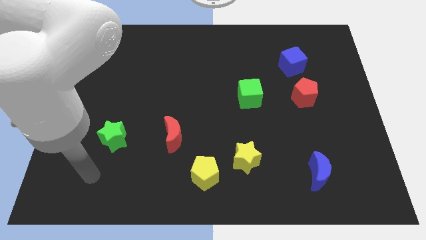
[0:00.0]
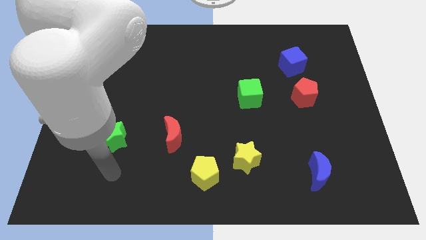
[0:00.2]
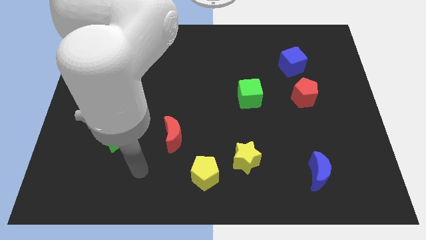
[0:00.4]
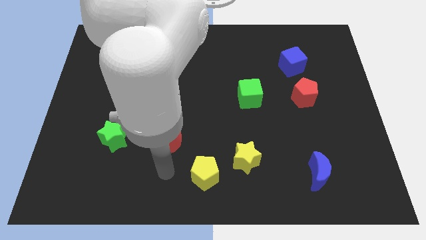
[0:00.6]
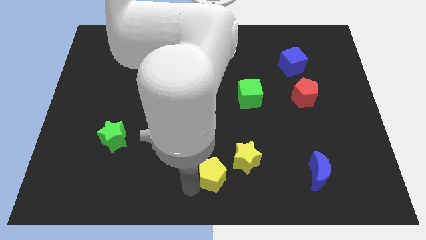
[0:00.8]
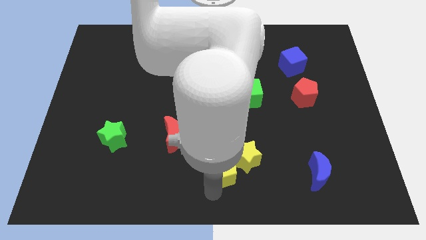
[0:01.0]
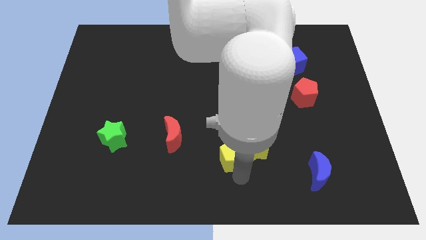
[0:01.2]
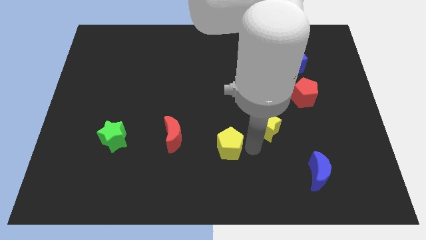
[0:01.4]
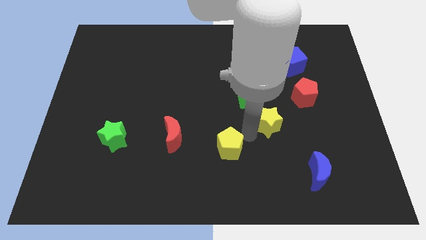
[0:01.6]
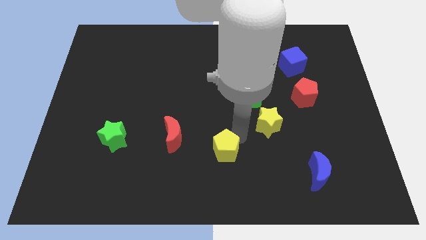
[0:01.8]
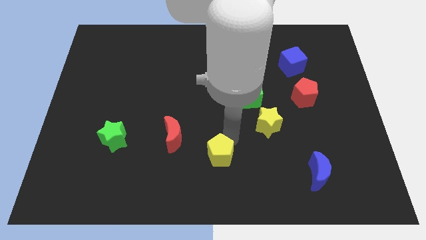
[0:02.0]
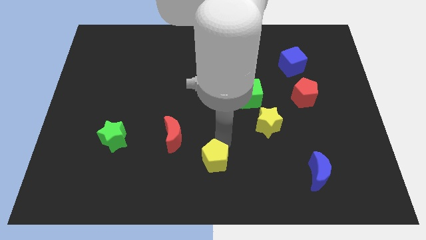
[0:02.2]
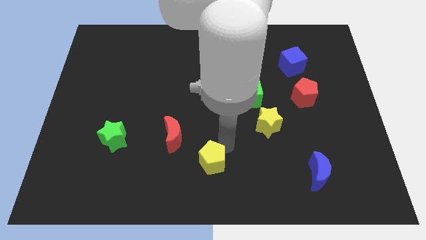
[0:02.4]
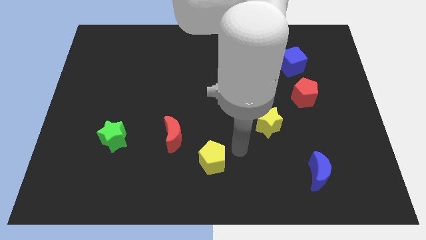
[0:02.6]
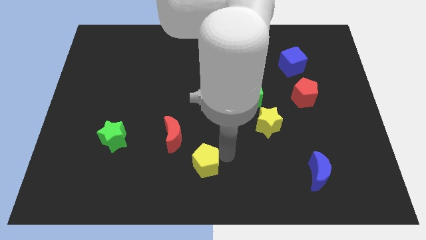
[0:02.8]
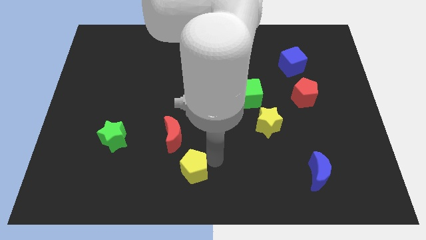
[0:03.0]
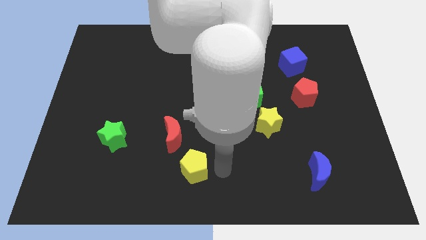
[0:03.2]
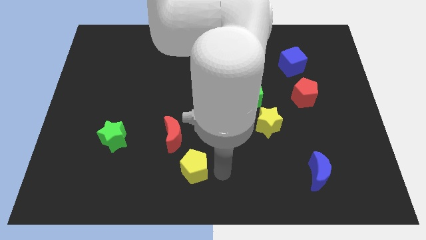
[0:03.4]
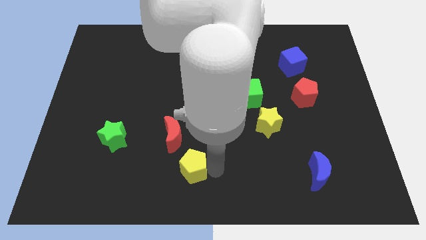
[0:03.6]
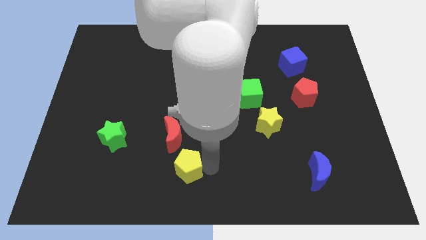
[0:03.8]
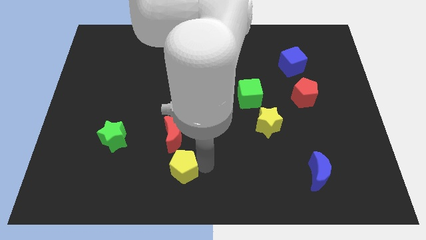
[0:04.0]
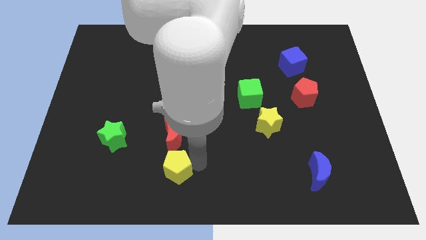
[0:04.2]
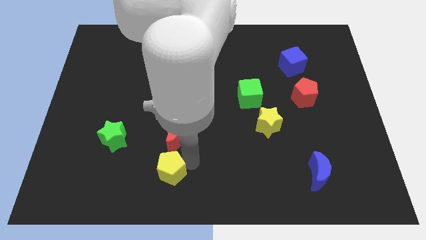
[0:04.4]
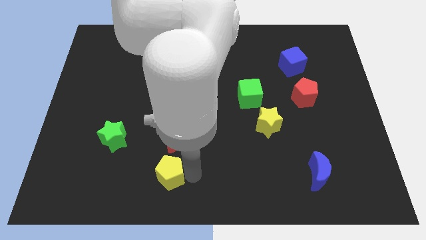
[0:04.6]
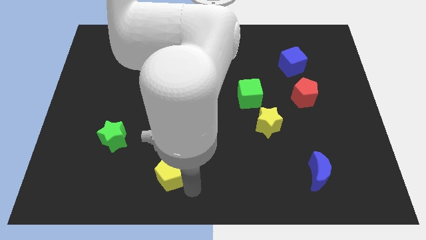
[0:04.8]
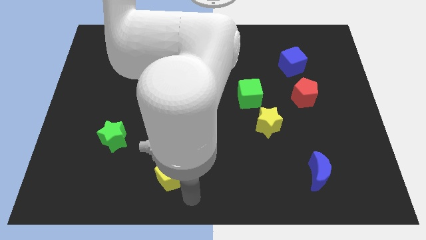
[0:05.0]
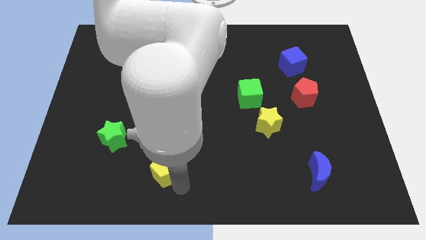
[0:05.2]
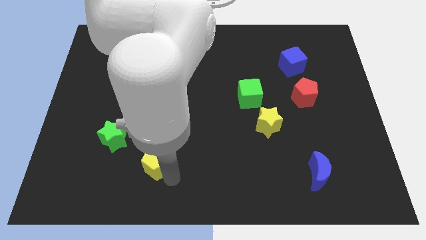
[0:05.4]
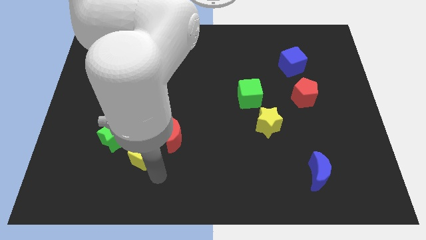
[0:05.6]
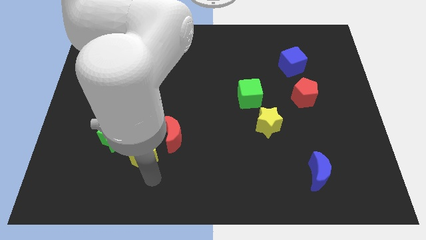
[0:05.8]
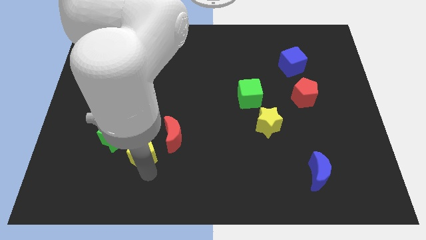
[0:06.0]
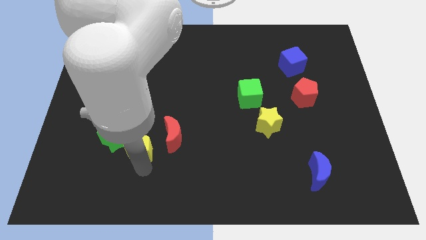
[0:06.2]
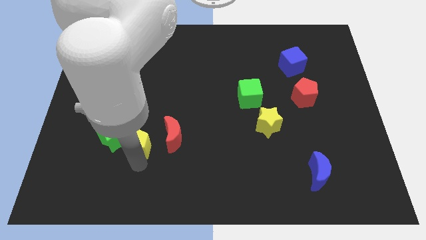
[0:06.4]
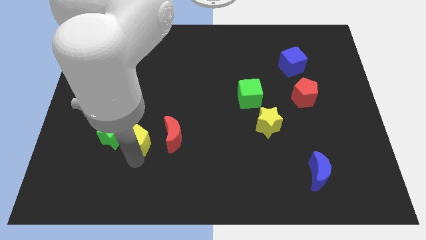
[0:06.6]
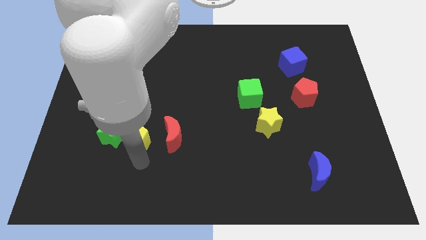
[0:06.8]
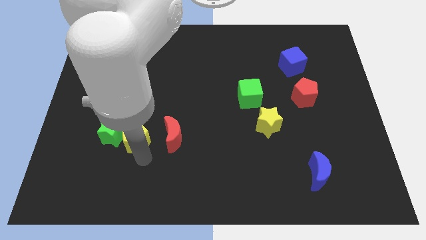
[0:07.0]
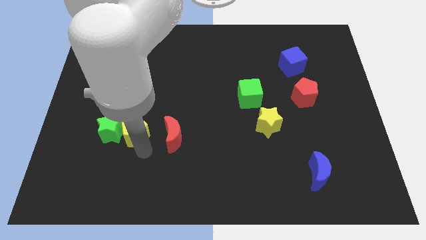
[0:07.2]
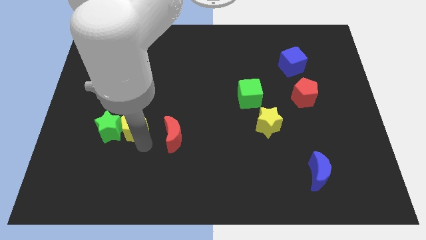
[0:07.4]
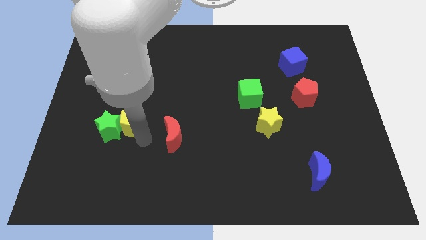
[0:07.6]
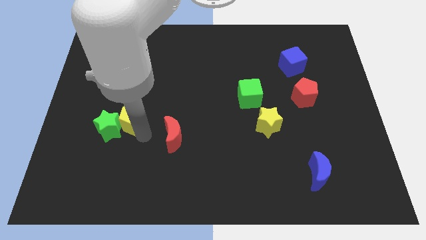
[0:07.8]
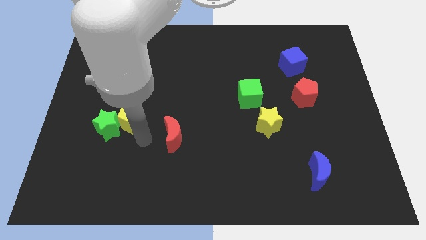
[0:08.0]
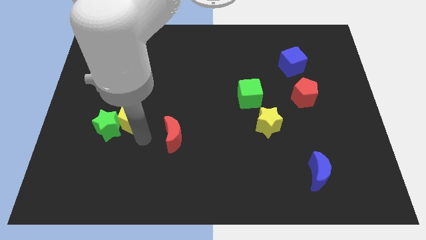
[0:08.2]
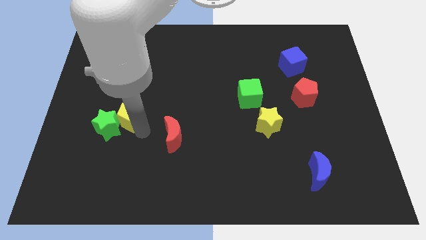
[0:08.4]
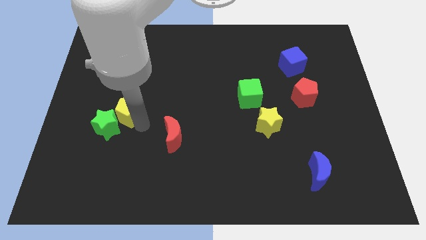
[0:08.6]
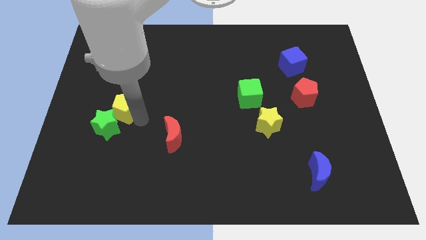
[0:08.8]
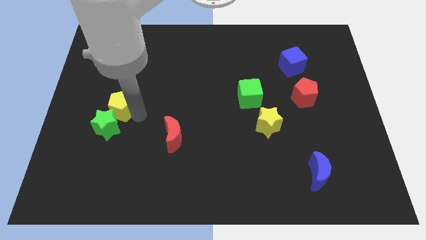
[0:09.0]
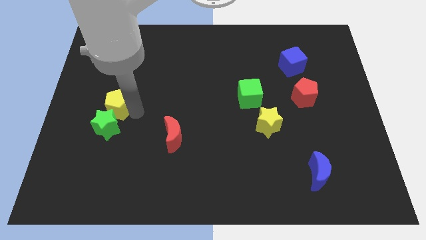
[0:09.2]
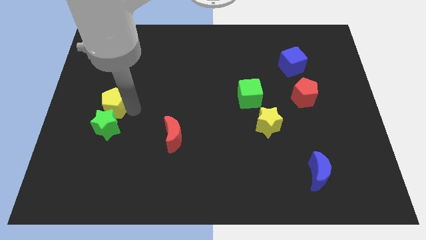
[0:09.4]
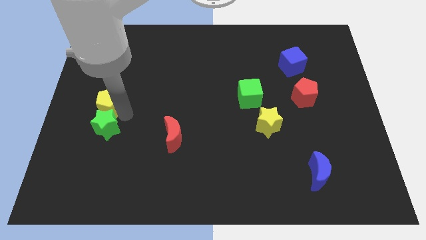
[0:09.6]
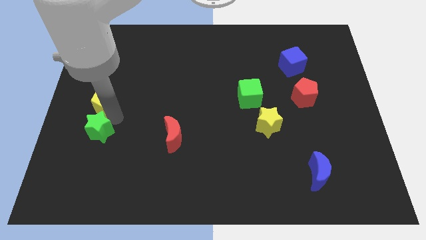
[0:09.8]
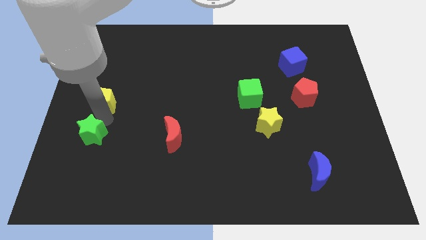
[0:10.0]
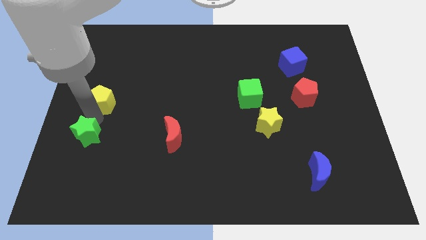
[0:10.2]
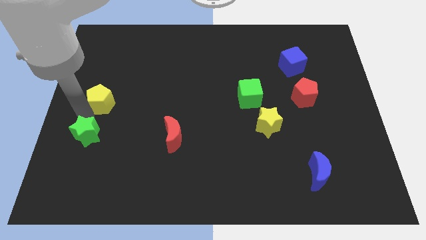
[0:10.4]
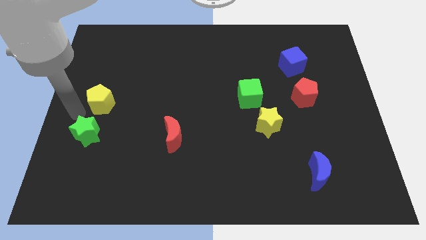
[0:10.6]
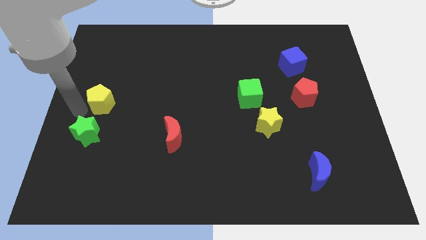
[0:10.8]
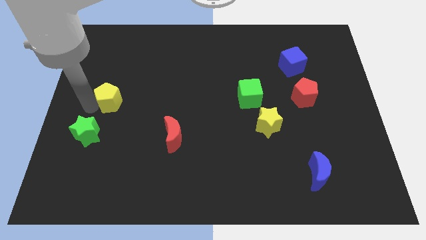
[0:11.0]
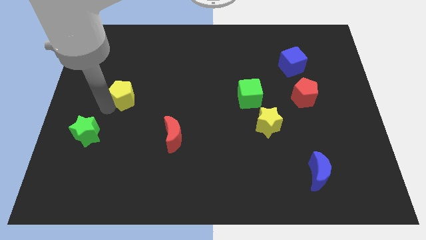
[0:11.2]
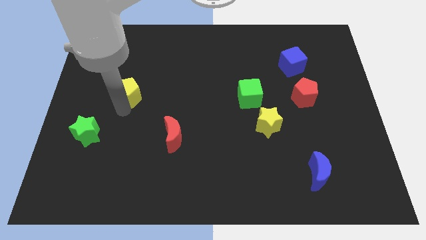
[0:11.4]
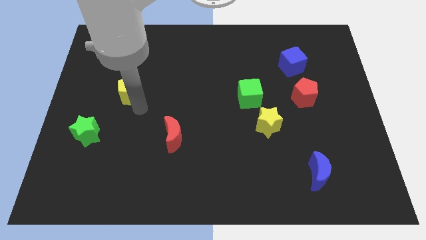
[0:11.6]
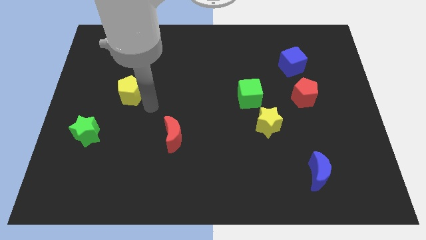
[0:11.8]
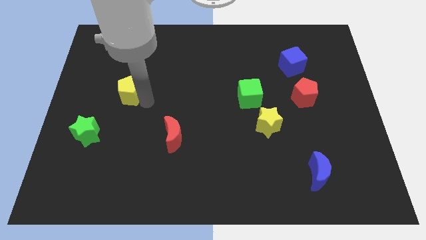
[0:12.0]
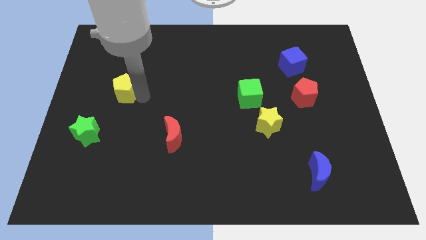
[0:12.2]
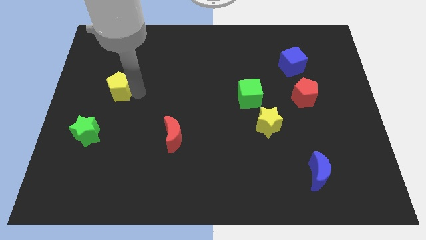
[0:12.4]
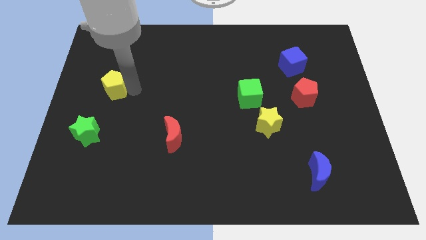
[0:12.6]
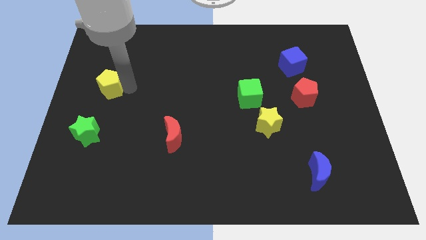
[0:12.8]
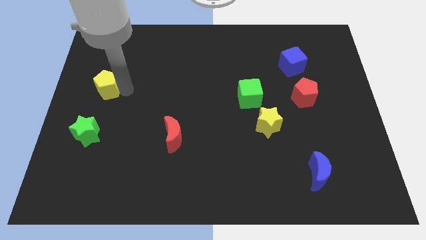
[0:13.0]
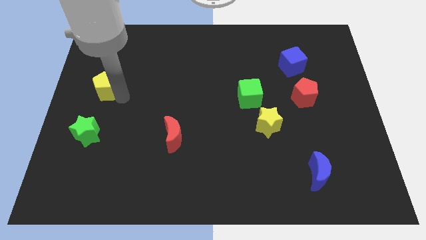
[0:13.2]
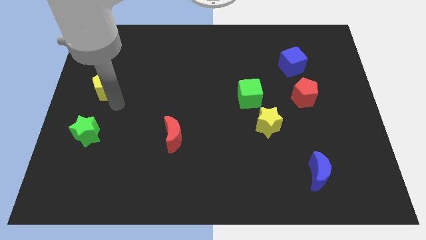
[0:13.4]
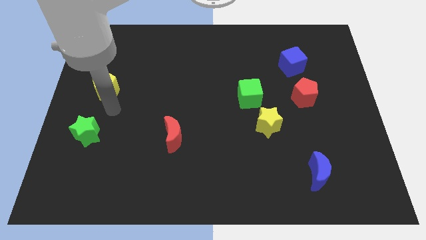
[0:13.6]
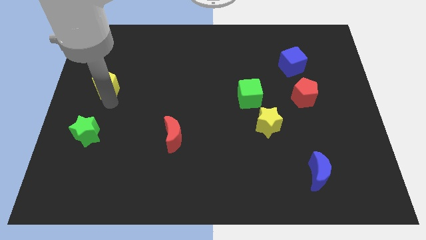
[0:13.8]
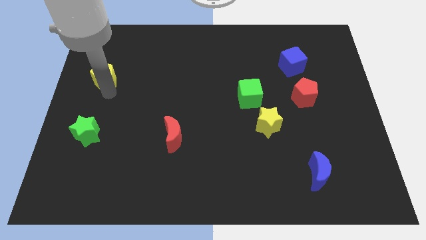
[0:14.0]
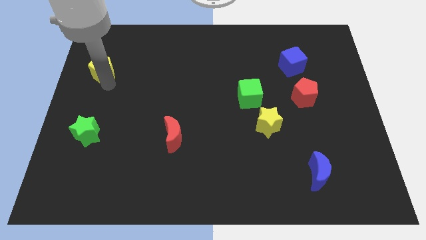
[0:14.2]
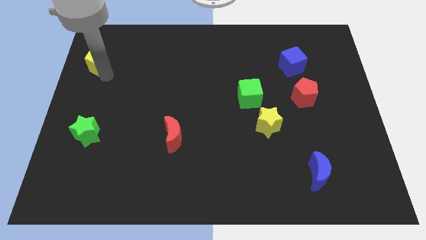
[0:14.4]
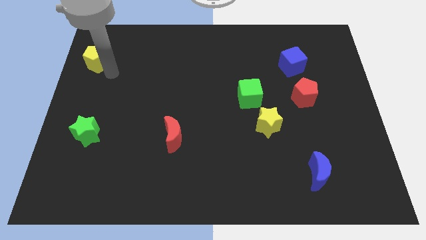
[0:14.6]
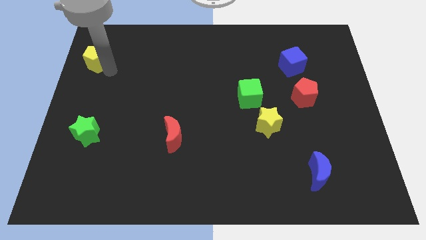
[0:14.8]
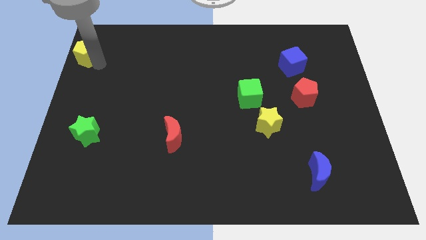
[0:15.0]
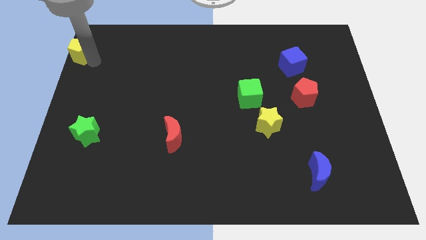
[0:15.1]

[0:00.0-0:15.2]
push the yellow pentagon to the upper left corner
